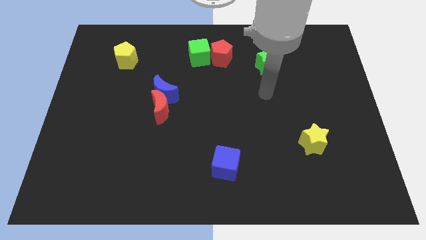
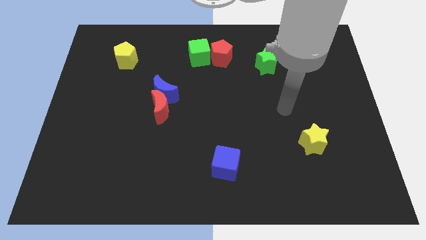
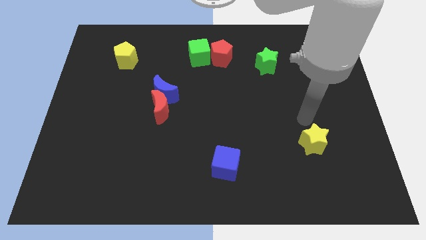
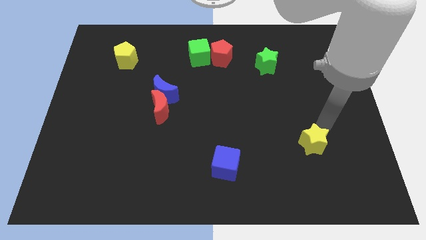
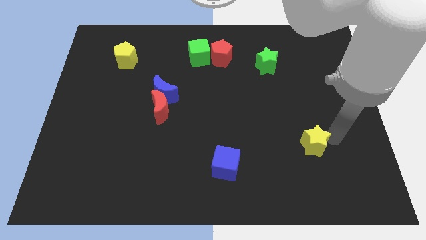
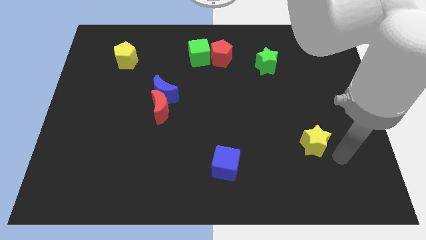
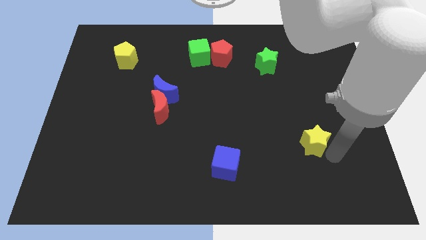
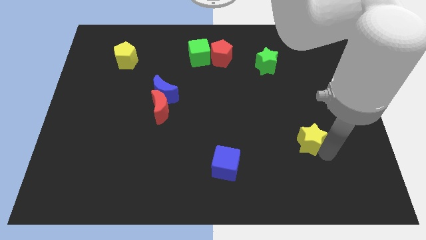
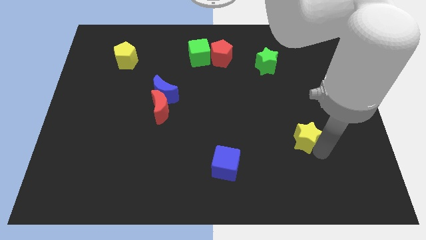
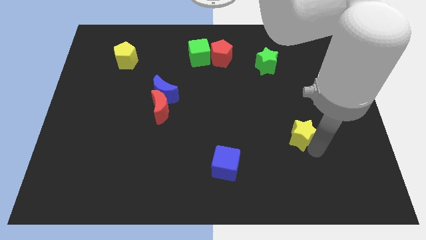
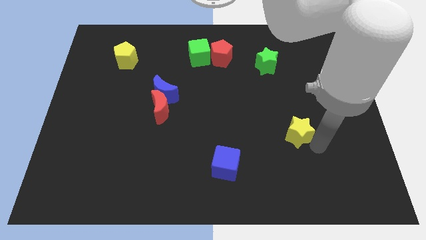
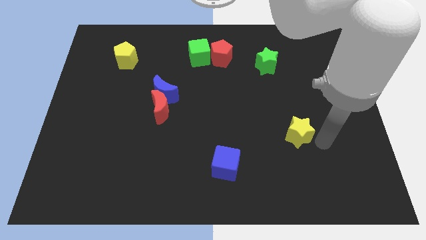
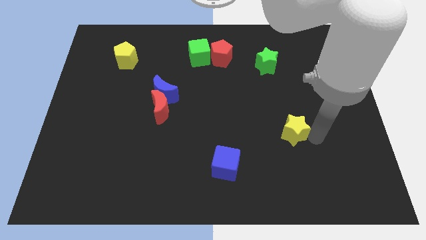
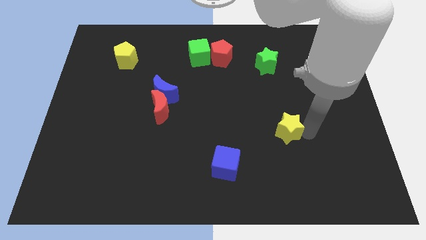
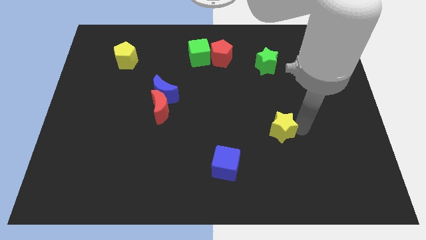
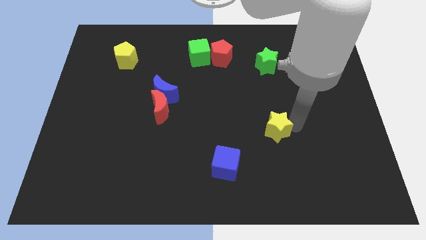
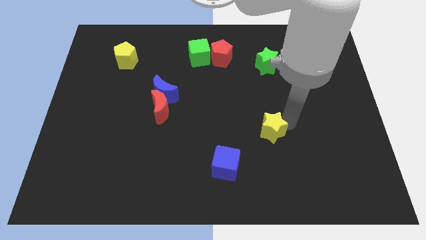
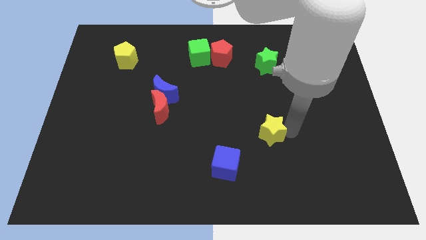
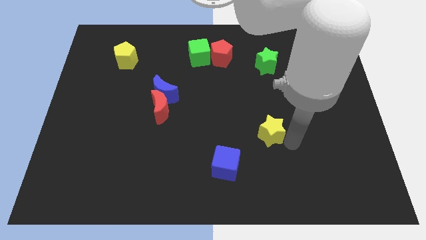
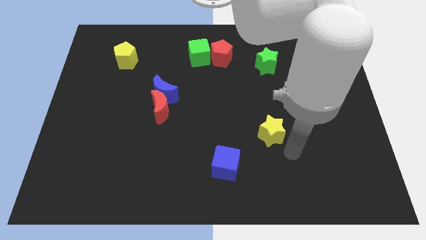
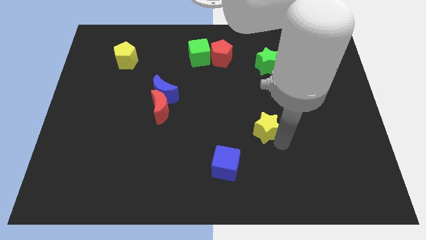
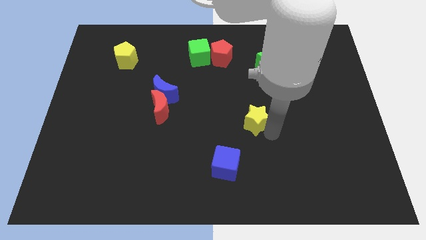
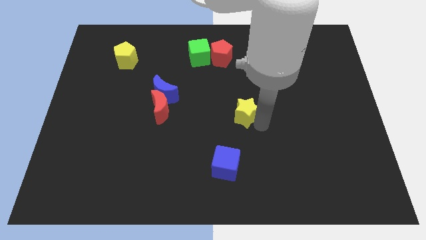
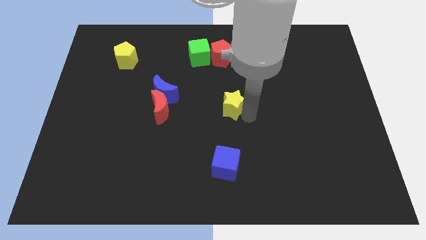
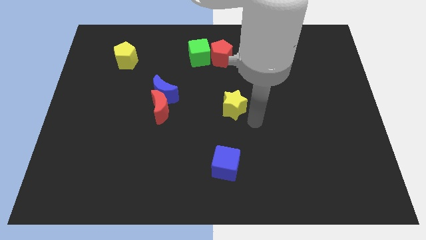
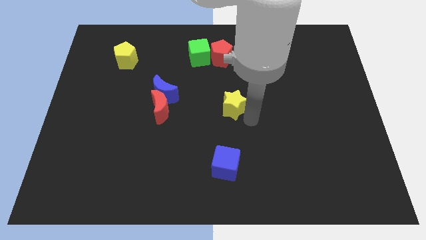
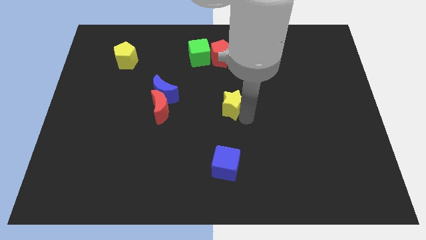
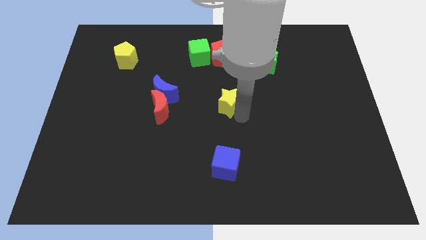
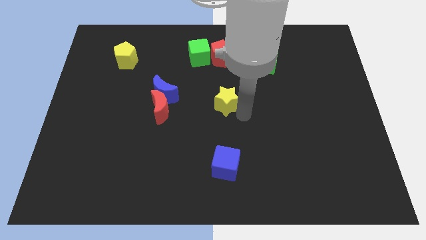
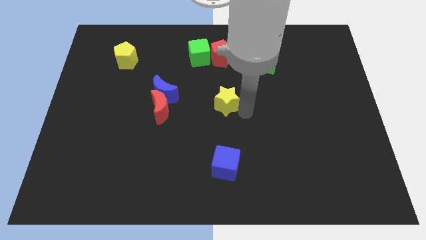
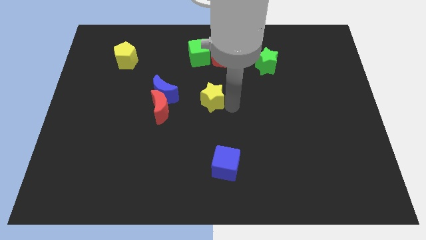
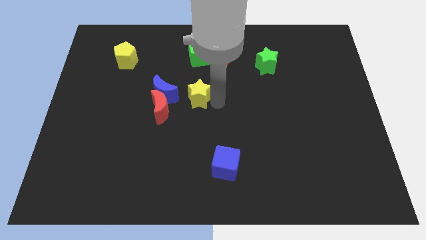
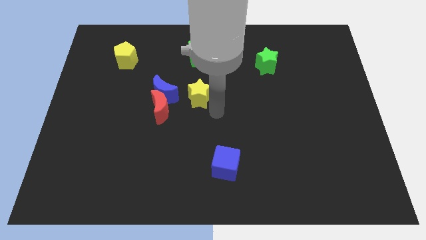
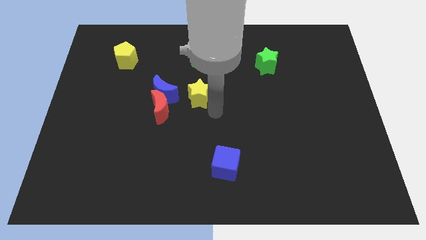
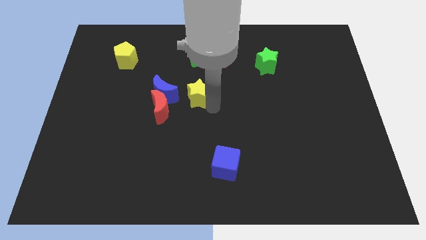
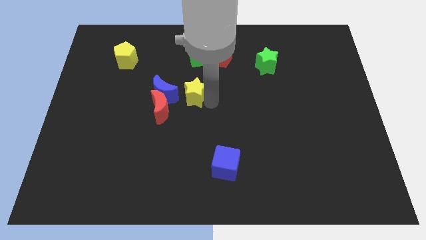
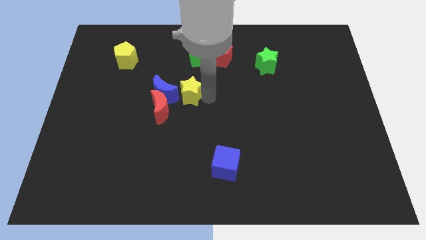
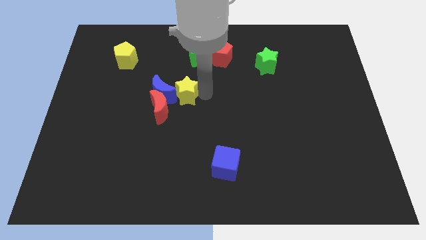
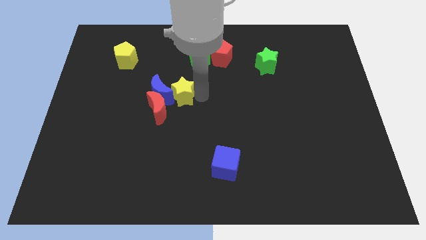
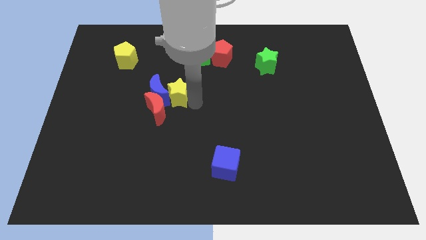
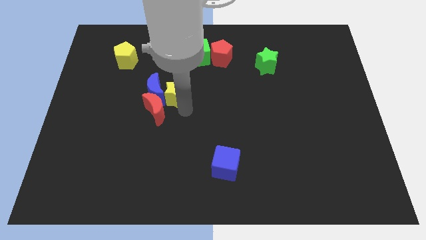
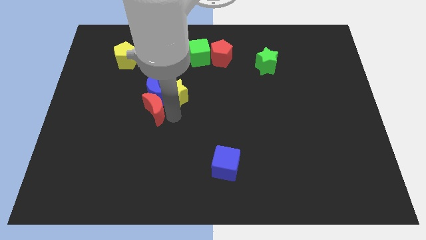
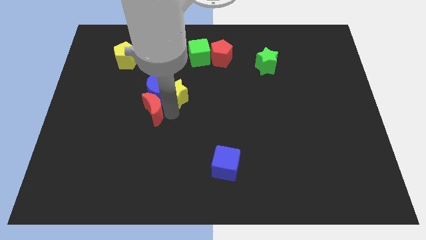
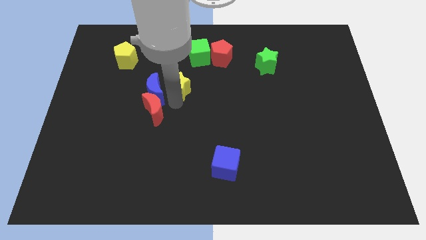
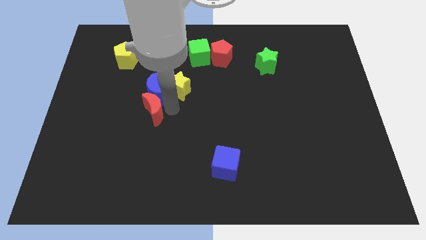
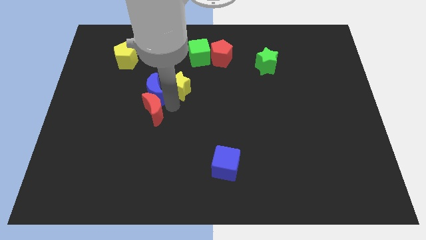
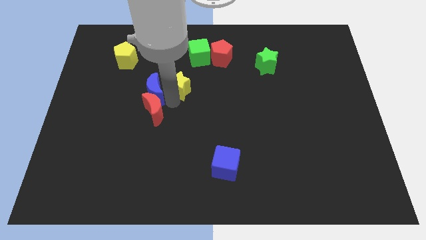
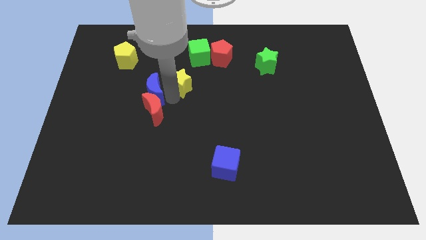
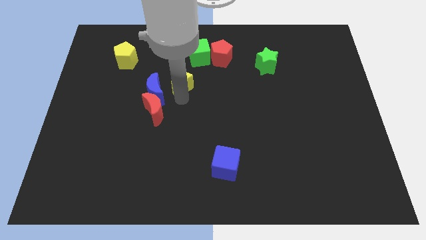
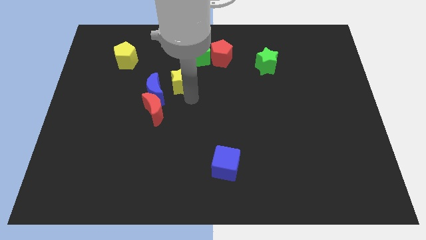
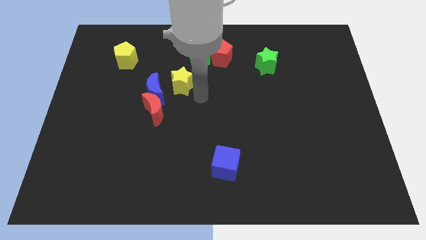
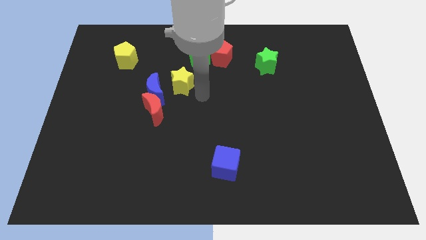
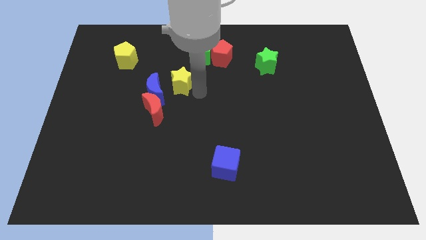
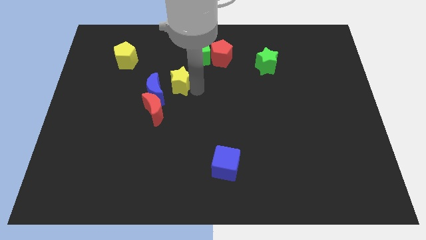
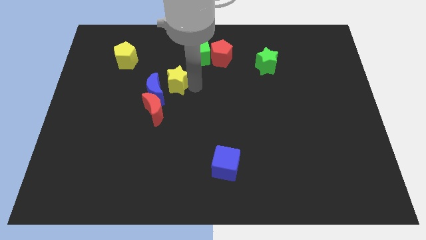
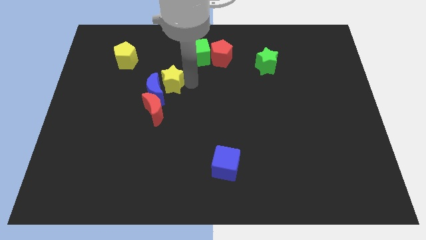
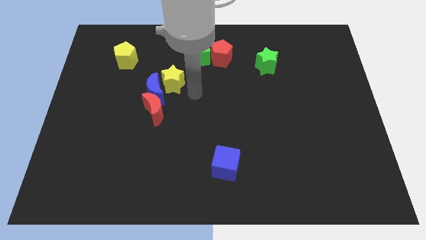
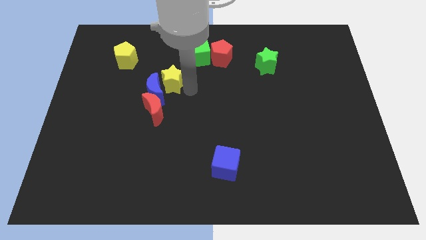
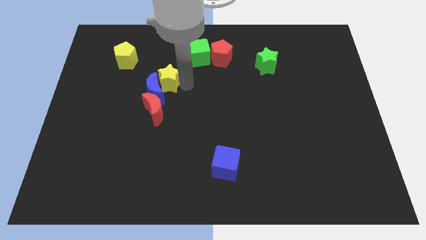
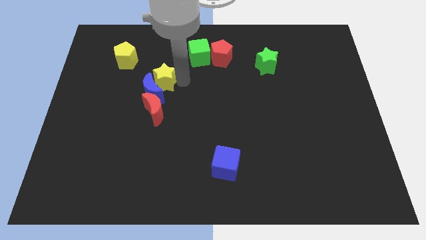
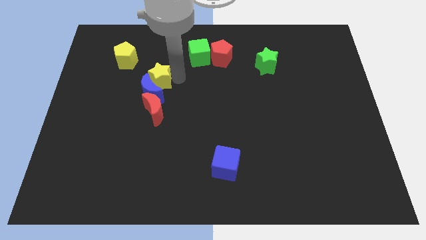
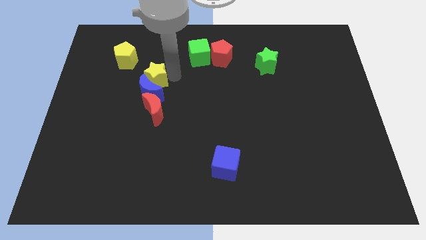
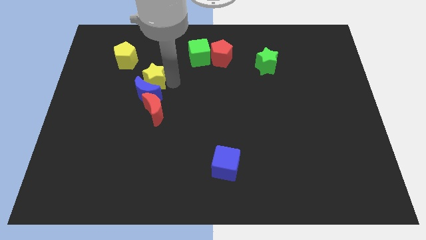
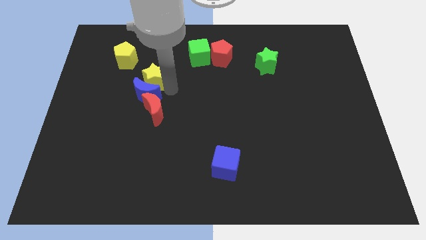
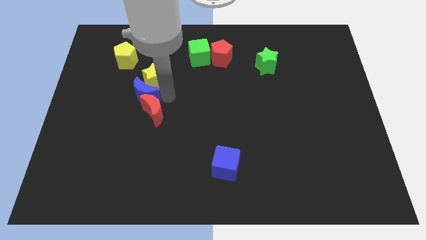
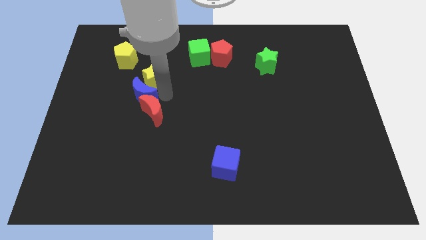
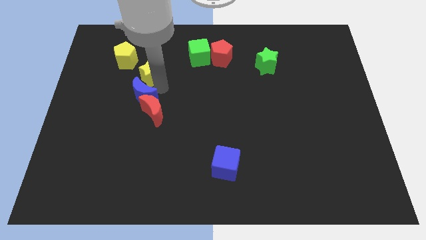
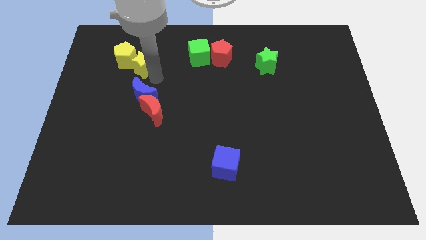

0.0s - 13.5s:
move the yellow star close to the yellow pentagon

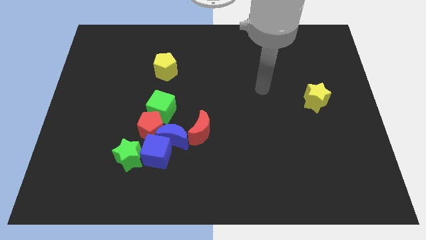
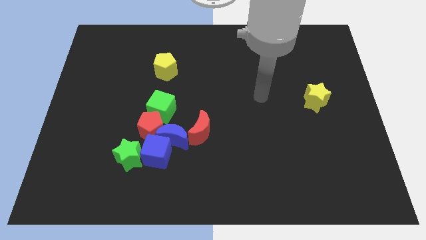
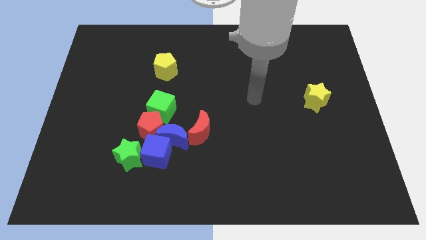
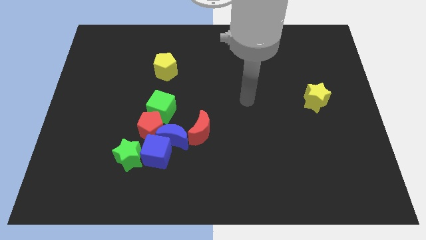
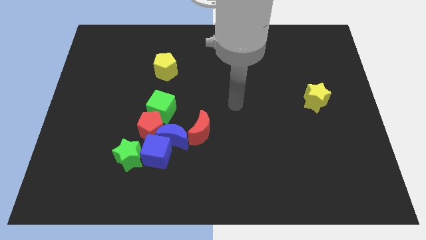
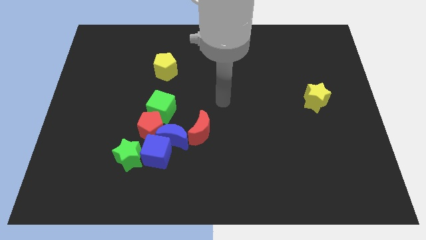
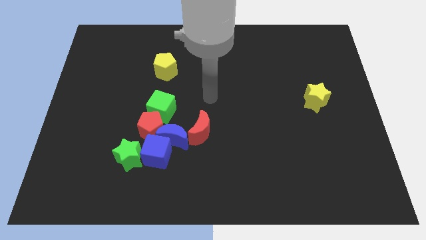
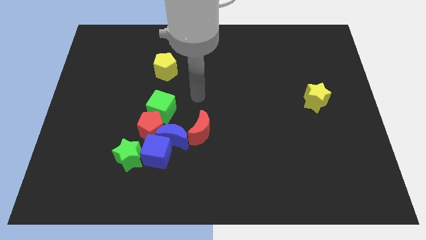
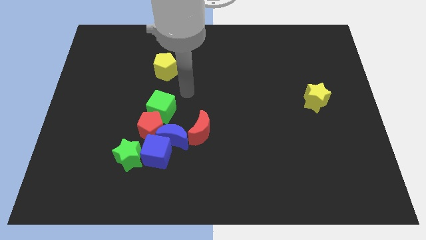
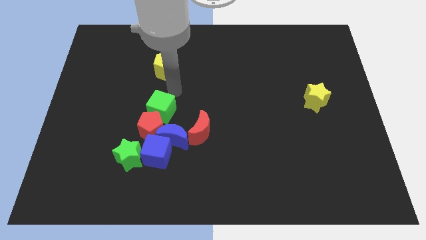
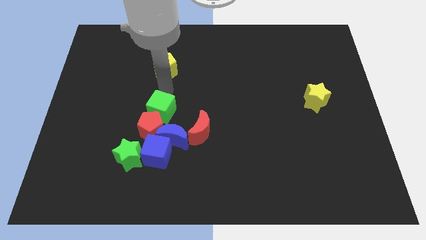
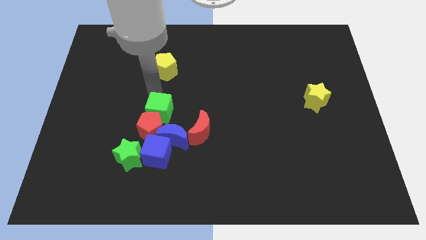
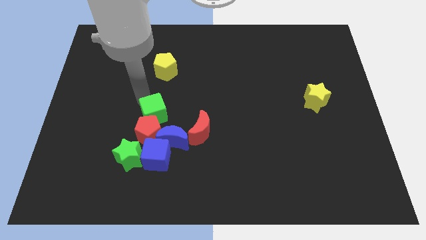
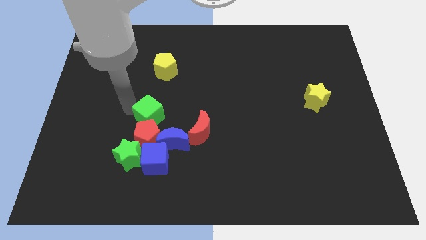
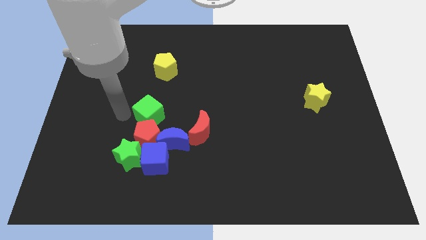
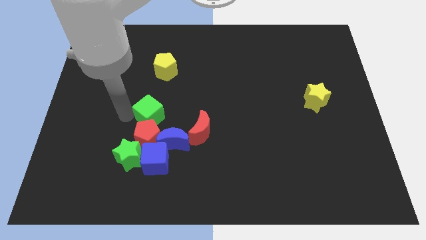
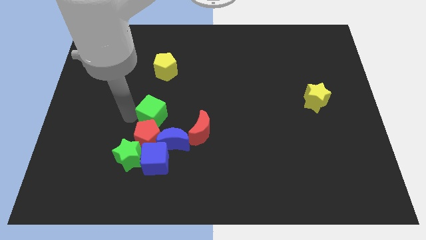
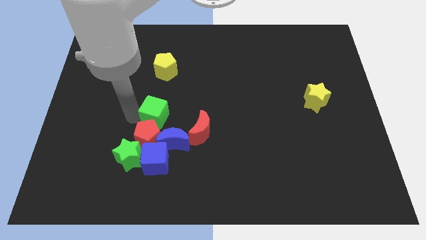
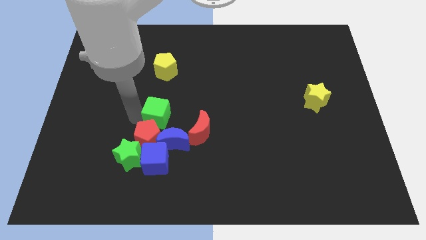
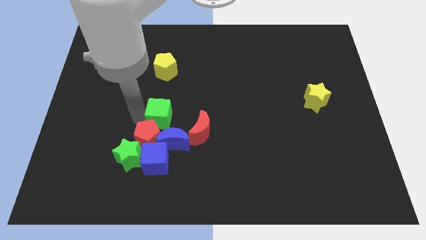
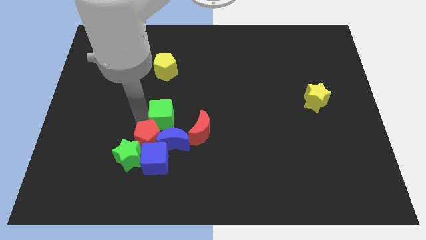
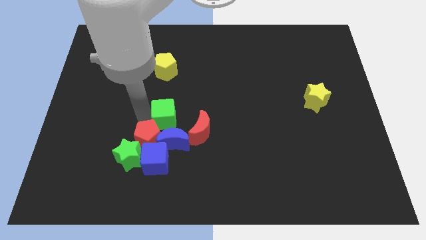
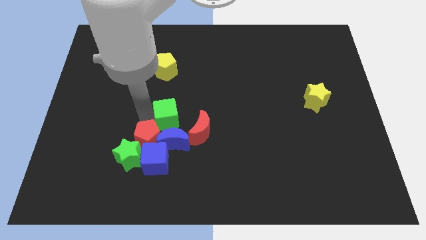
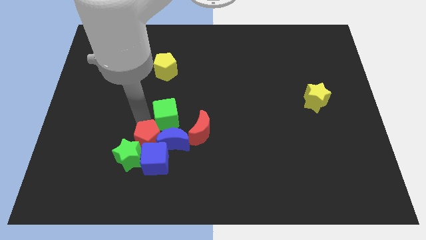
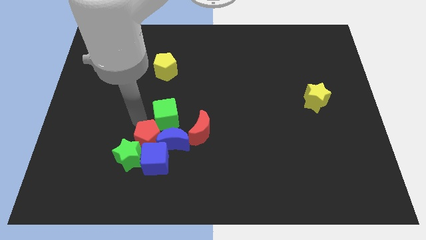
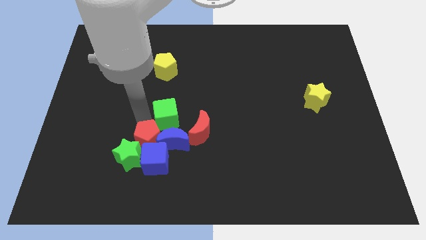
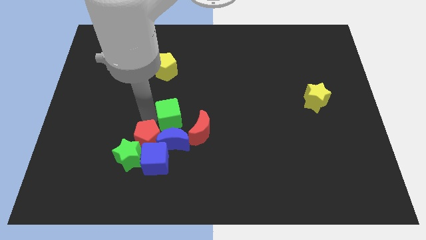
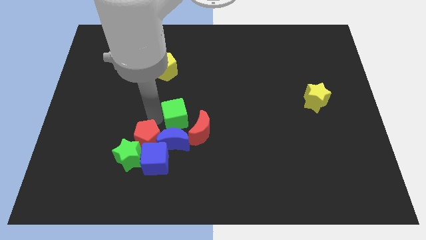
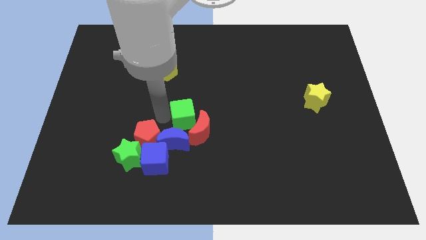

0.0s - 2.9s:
move the green cube next to the red moon
